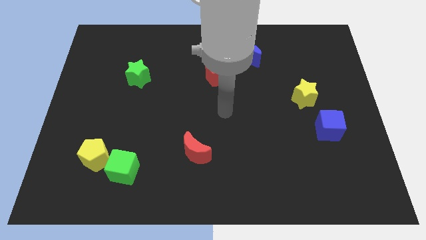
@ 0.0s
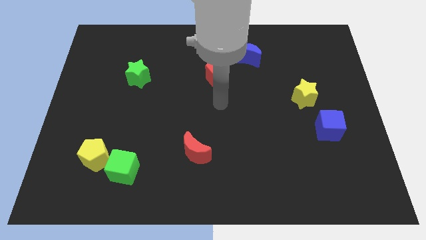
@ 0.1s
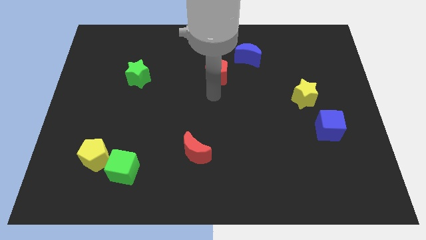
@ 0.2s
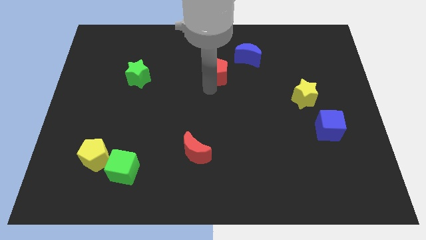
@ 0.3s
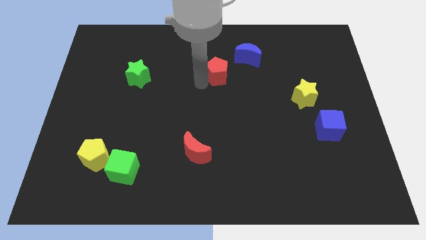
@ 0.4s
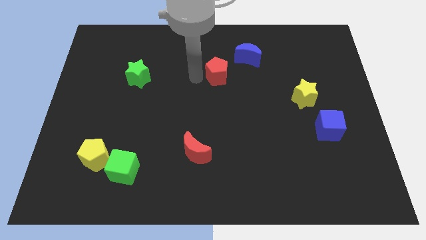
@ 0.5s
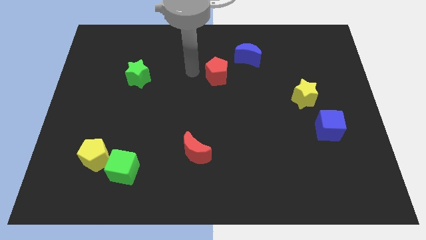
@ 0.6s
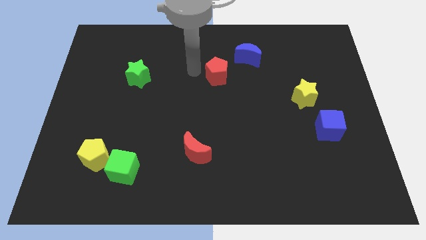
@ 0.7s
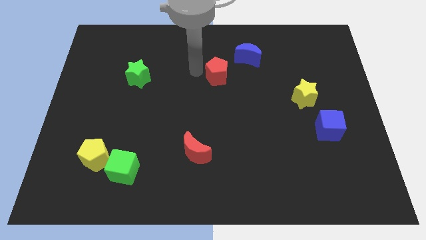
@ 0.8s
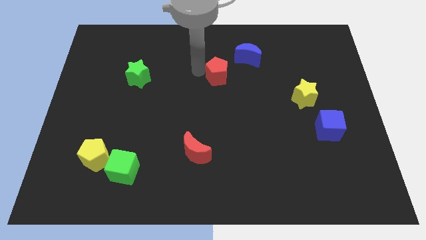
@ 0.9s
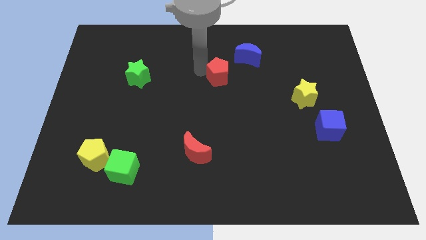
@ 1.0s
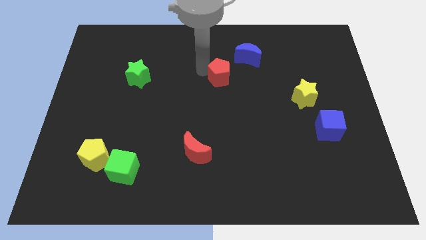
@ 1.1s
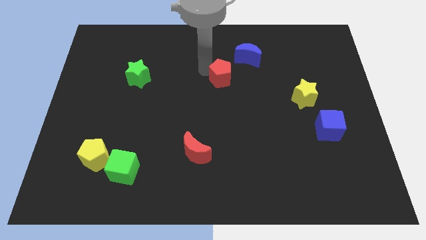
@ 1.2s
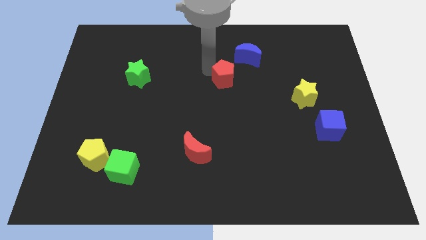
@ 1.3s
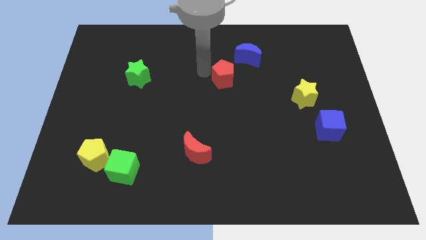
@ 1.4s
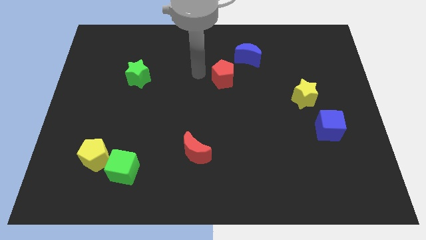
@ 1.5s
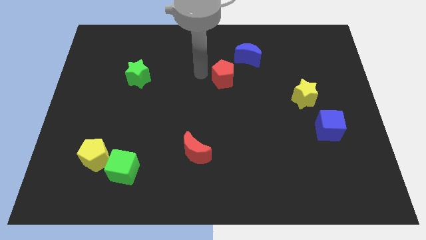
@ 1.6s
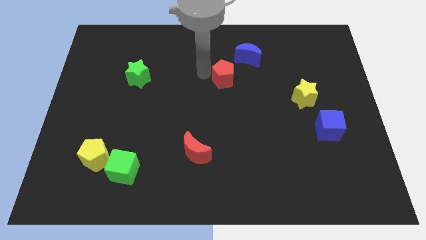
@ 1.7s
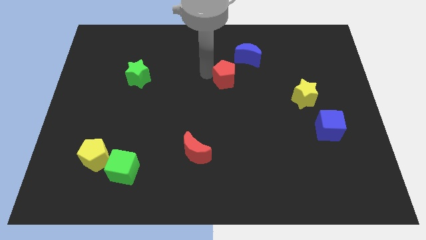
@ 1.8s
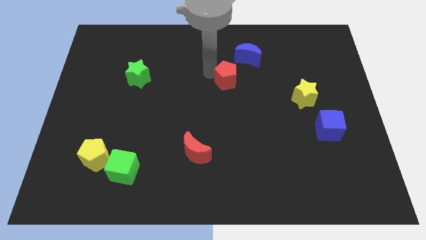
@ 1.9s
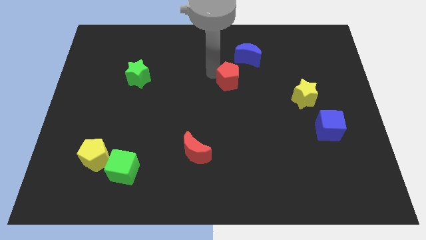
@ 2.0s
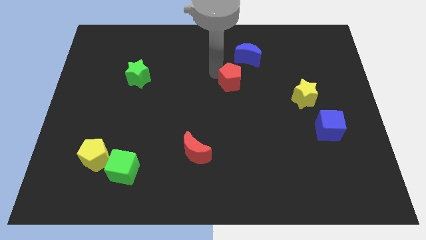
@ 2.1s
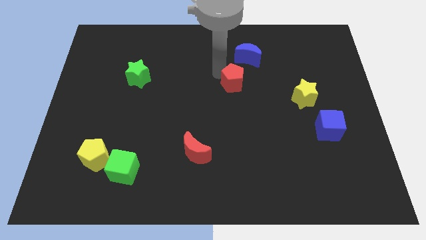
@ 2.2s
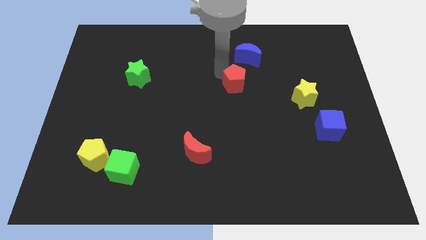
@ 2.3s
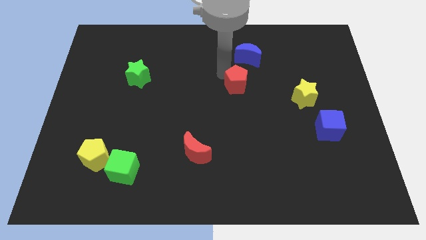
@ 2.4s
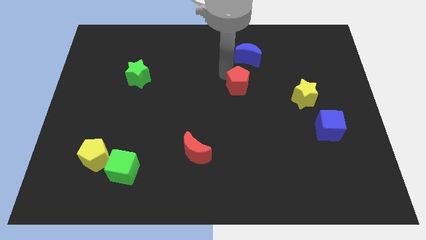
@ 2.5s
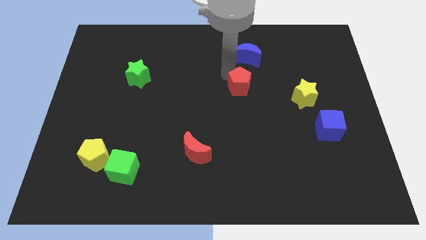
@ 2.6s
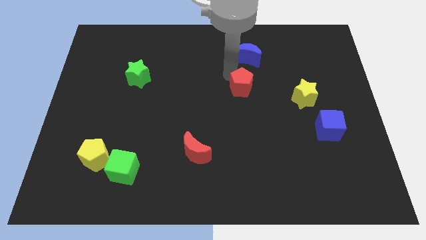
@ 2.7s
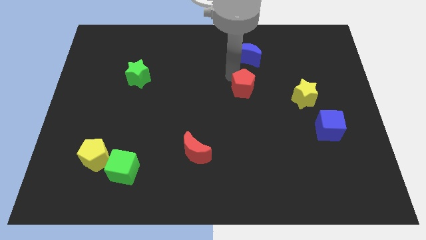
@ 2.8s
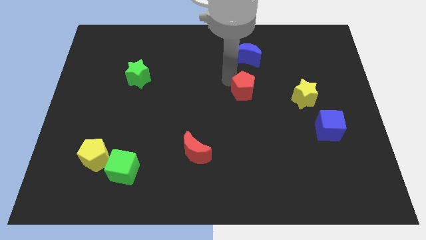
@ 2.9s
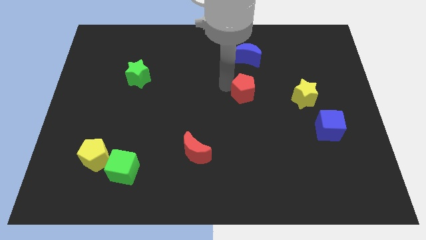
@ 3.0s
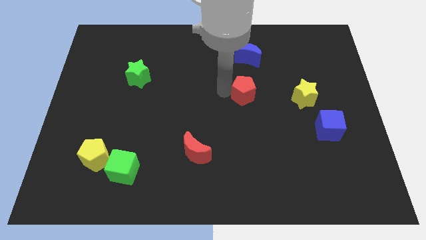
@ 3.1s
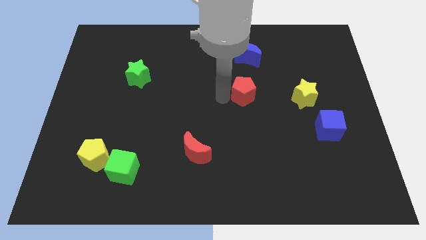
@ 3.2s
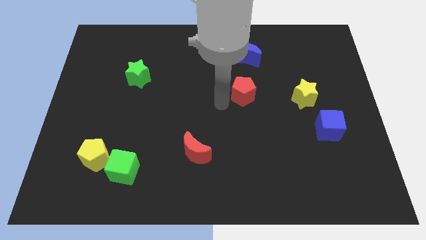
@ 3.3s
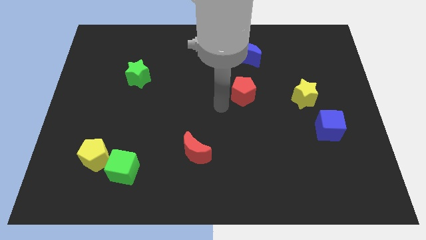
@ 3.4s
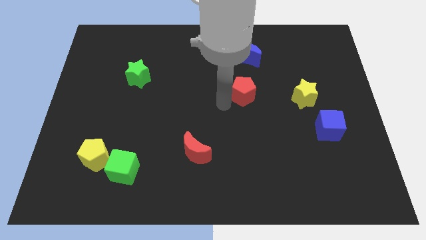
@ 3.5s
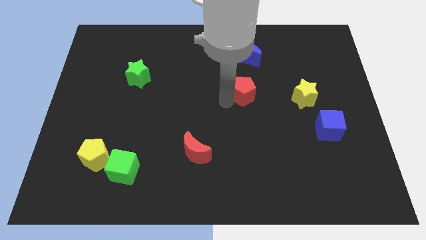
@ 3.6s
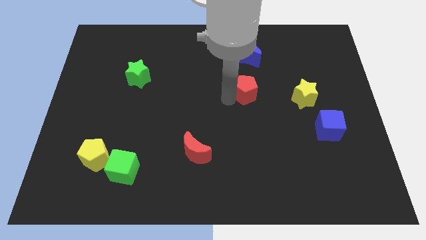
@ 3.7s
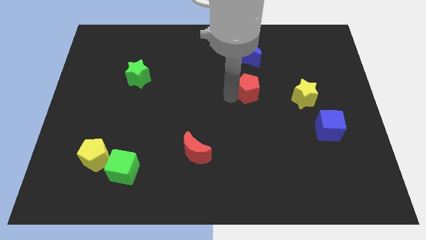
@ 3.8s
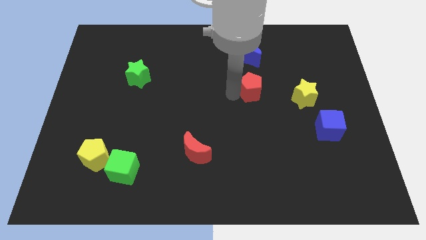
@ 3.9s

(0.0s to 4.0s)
slightly move the red pentagon right

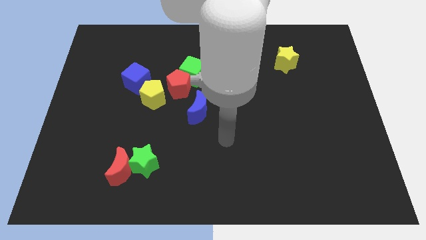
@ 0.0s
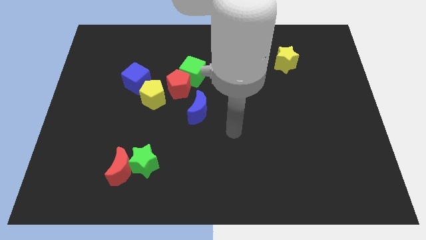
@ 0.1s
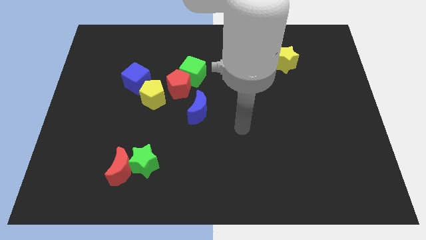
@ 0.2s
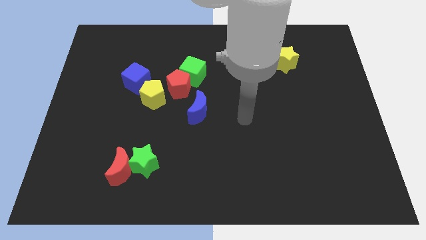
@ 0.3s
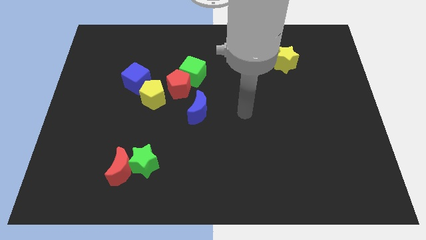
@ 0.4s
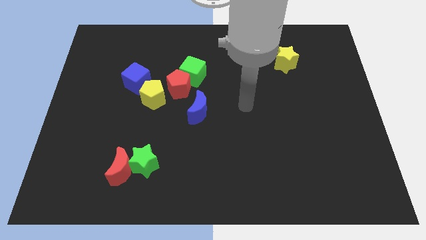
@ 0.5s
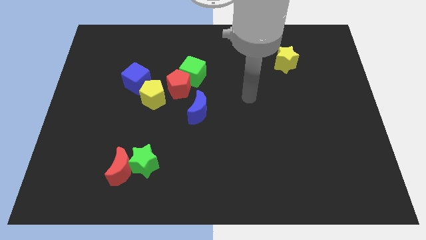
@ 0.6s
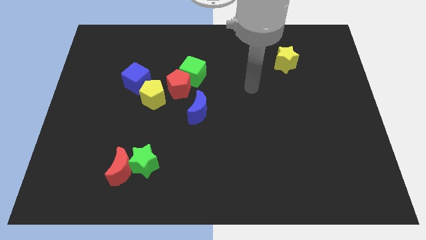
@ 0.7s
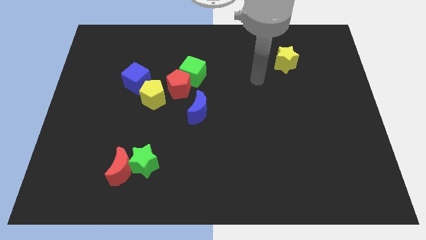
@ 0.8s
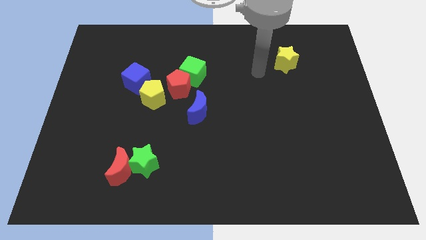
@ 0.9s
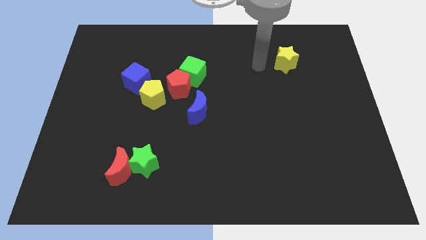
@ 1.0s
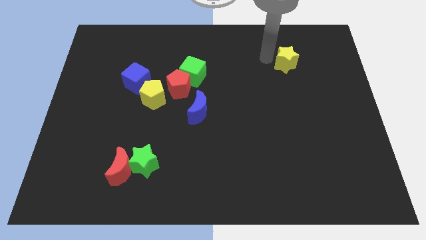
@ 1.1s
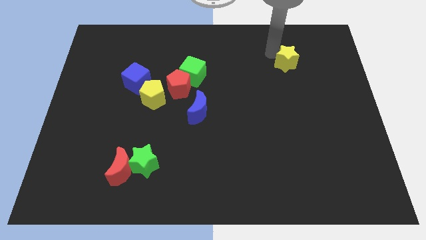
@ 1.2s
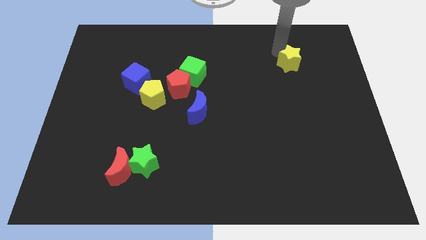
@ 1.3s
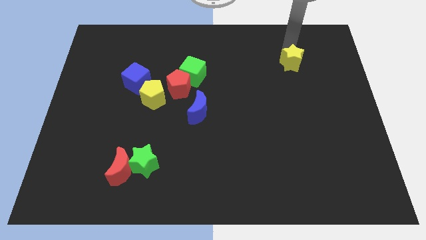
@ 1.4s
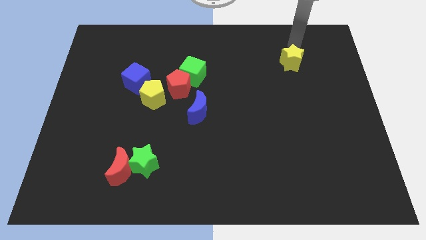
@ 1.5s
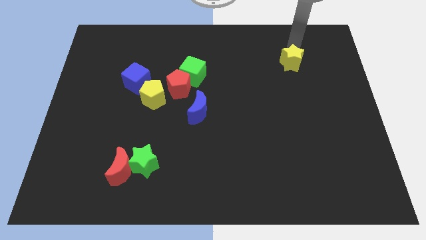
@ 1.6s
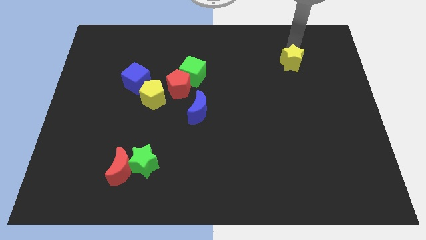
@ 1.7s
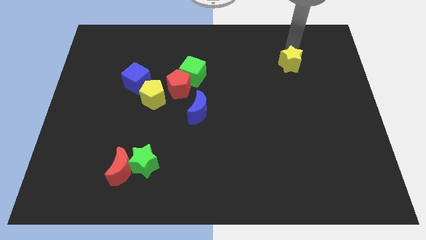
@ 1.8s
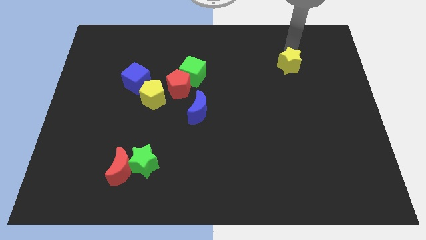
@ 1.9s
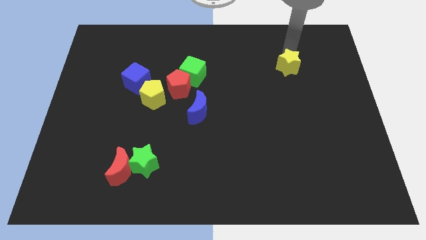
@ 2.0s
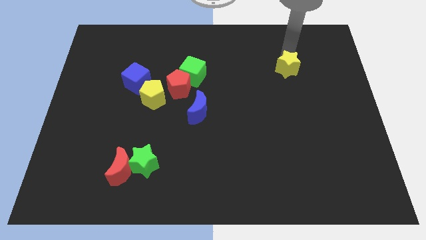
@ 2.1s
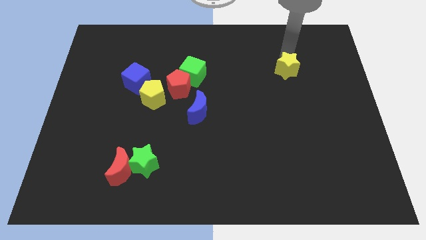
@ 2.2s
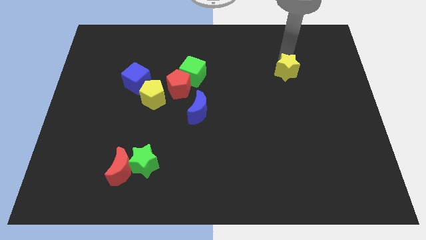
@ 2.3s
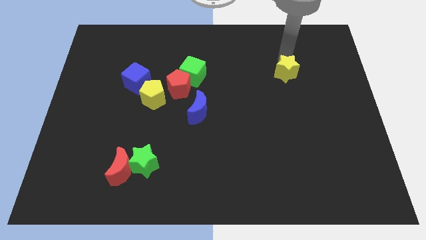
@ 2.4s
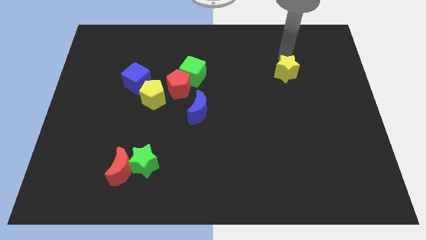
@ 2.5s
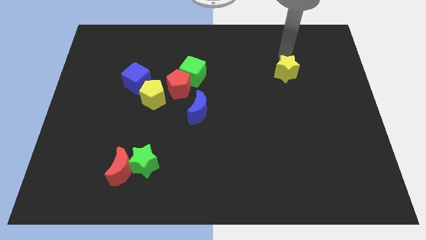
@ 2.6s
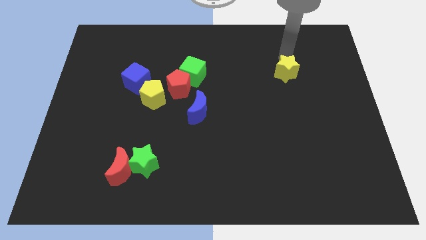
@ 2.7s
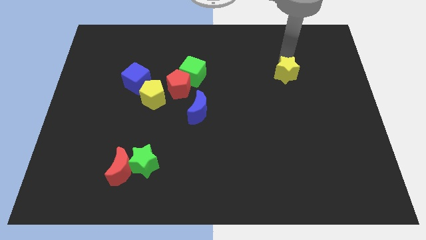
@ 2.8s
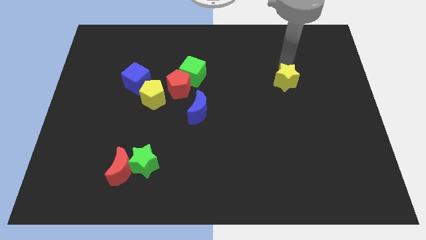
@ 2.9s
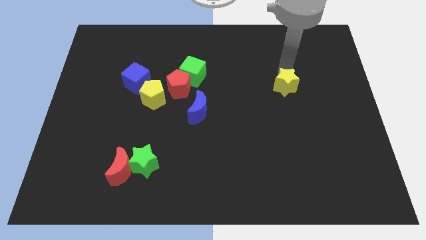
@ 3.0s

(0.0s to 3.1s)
move the yellow star down a little

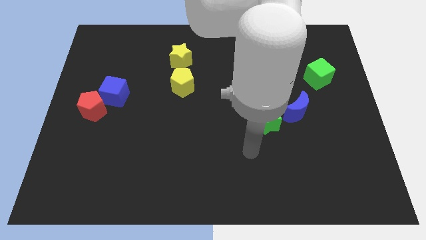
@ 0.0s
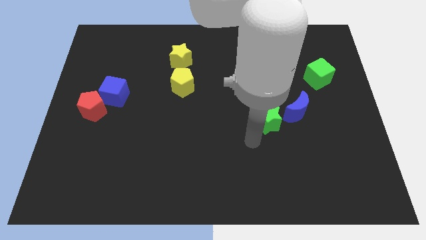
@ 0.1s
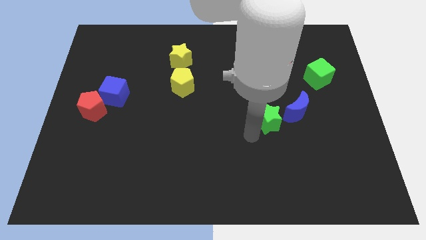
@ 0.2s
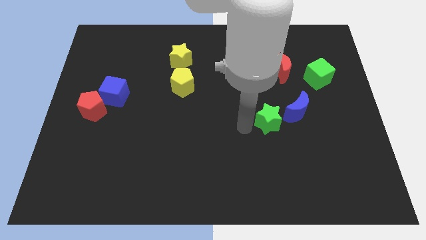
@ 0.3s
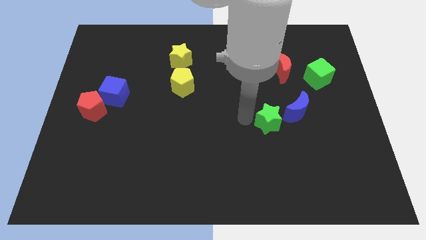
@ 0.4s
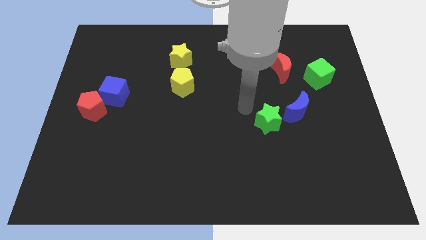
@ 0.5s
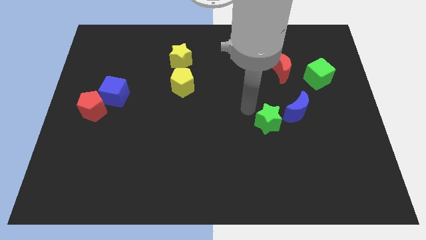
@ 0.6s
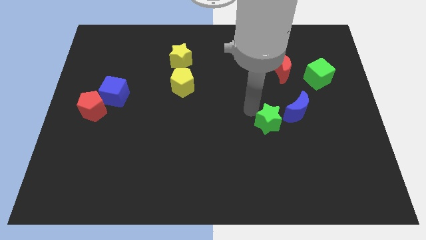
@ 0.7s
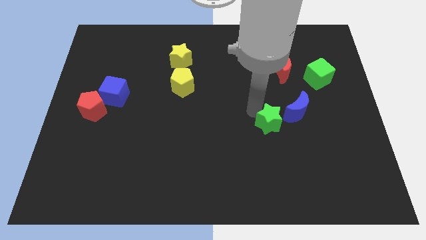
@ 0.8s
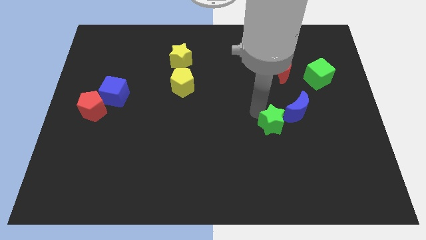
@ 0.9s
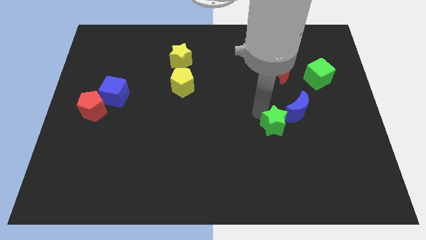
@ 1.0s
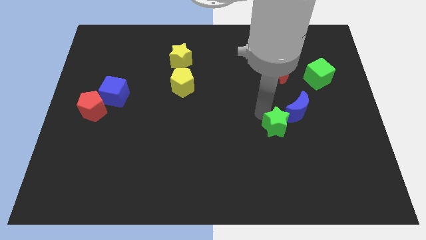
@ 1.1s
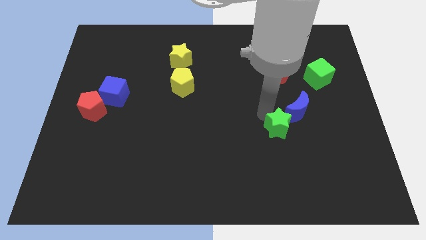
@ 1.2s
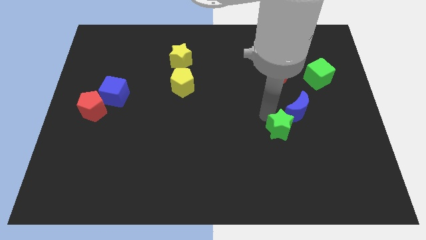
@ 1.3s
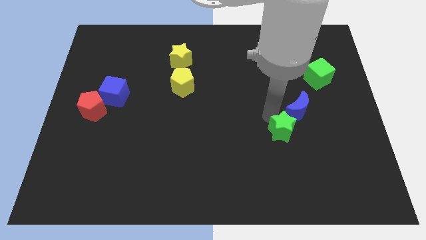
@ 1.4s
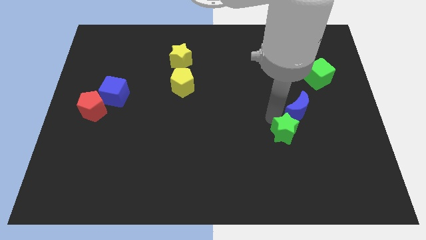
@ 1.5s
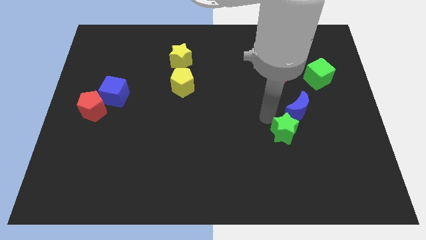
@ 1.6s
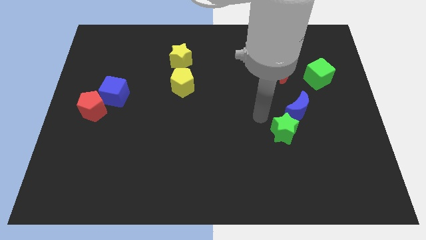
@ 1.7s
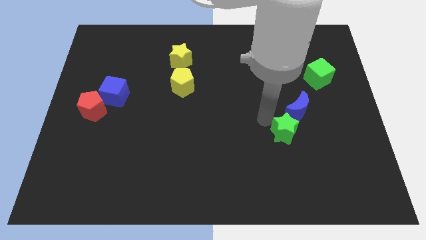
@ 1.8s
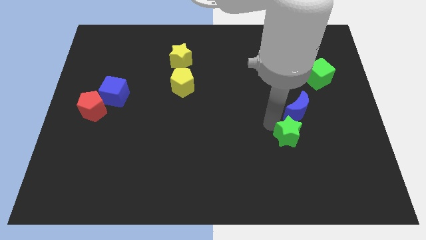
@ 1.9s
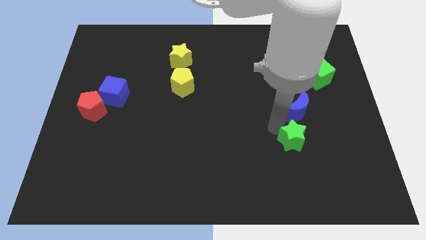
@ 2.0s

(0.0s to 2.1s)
move the green star downwards and right somewhat
